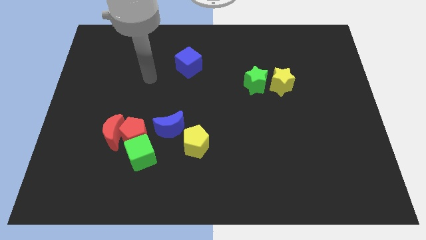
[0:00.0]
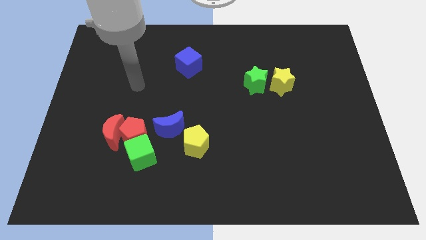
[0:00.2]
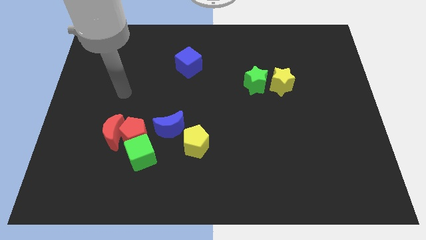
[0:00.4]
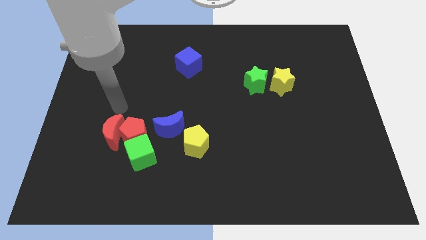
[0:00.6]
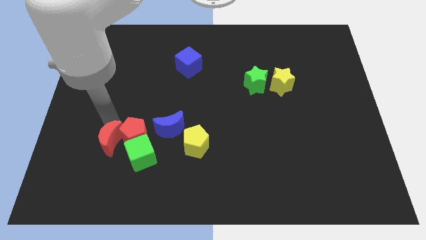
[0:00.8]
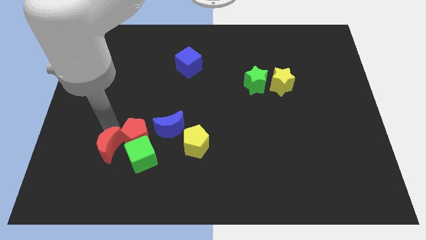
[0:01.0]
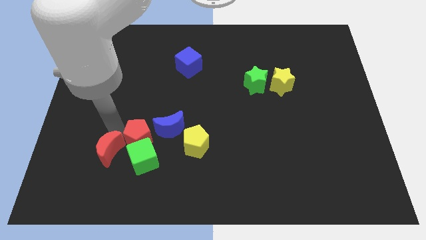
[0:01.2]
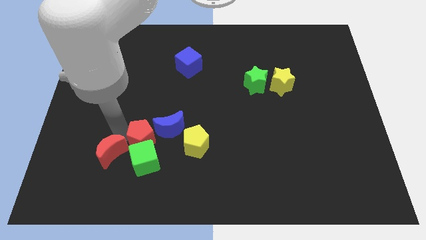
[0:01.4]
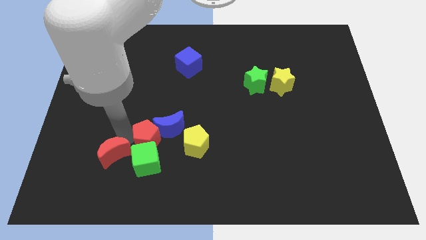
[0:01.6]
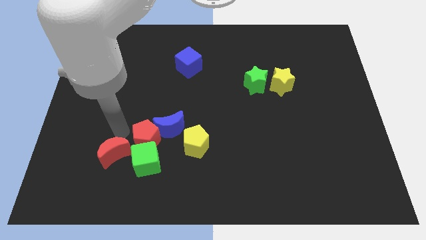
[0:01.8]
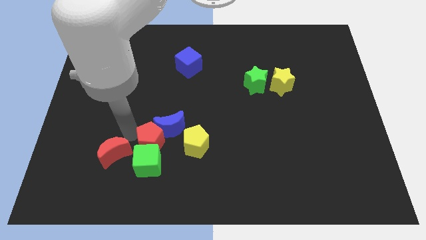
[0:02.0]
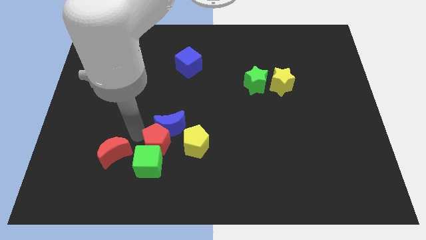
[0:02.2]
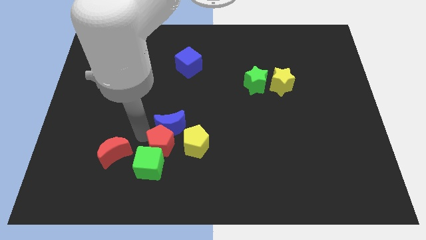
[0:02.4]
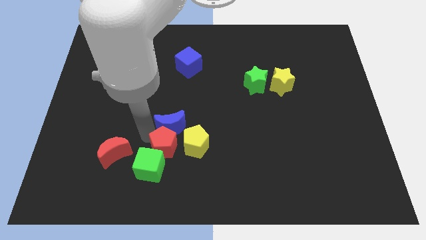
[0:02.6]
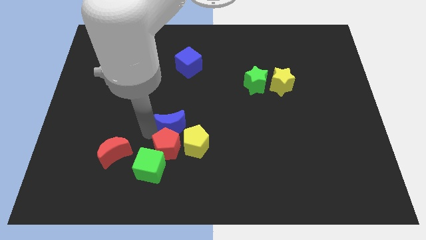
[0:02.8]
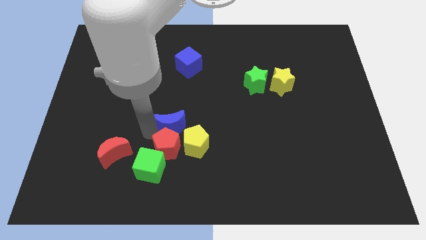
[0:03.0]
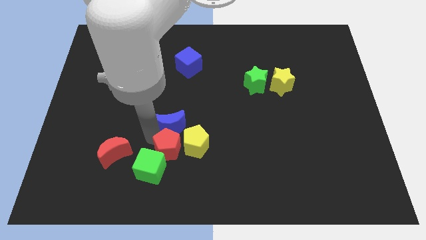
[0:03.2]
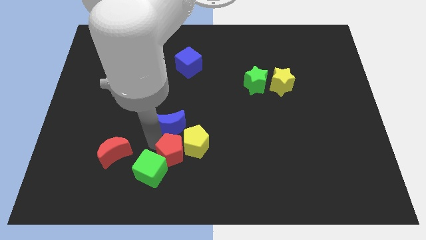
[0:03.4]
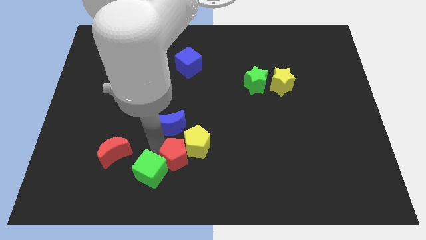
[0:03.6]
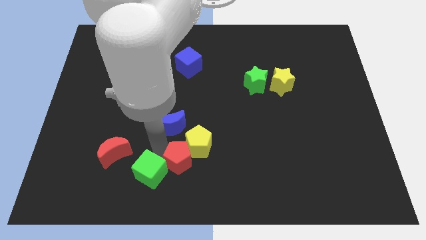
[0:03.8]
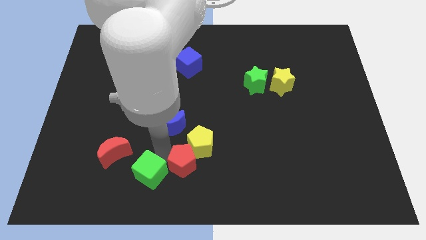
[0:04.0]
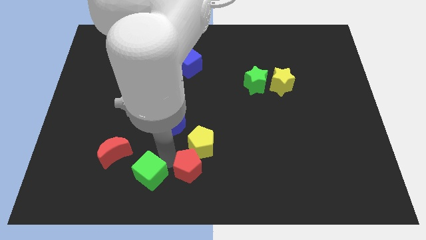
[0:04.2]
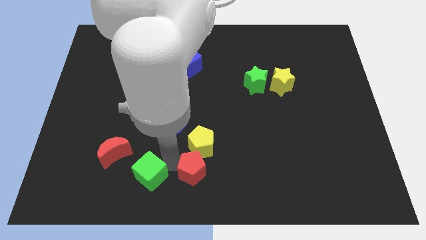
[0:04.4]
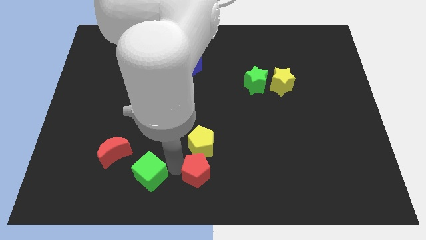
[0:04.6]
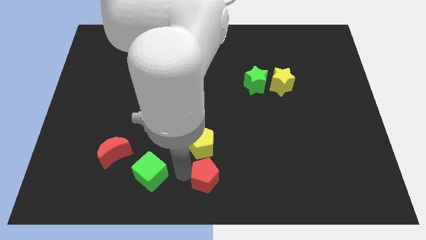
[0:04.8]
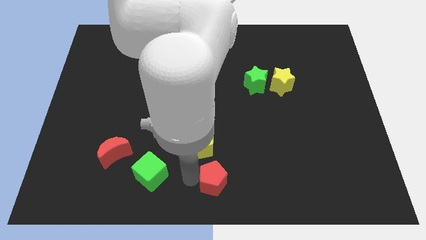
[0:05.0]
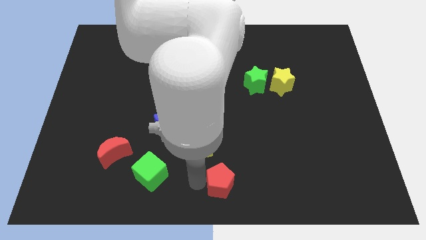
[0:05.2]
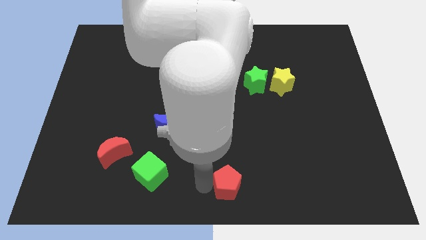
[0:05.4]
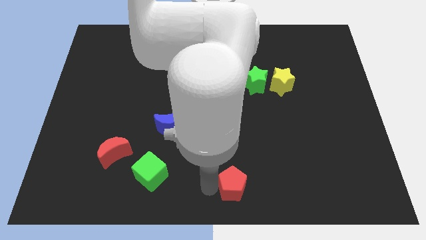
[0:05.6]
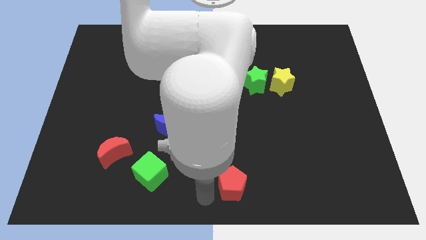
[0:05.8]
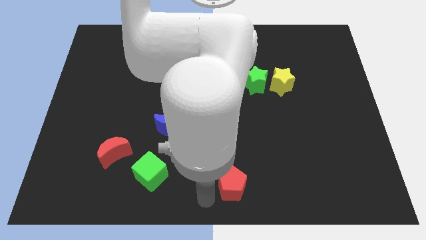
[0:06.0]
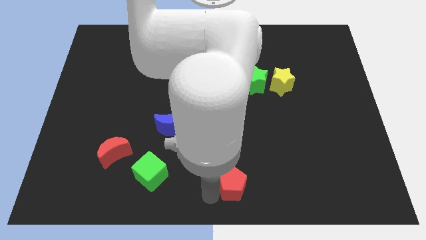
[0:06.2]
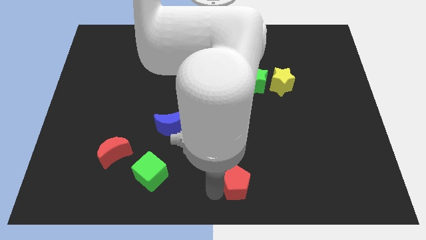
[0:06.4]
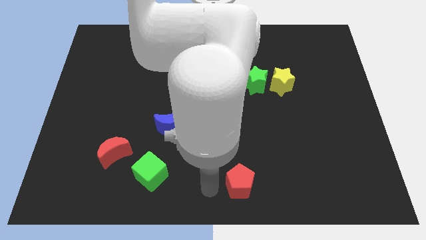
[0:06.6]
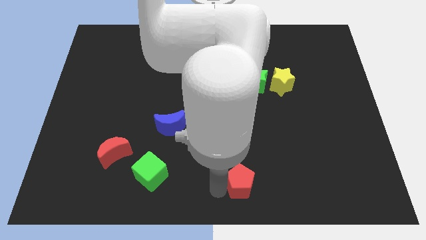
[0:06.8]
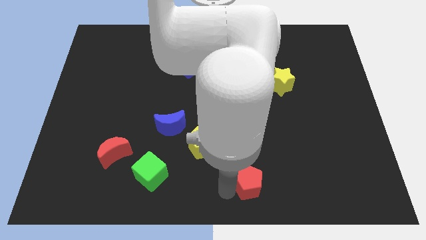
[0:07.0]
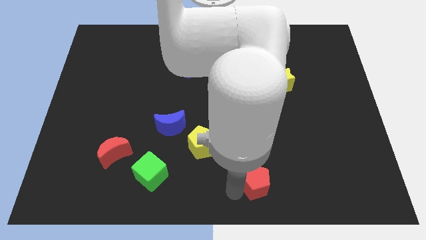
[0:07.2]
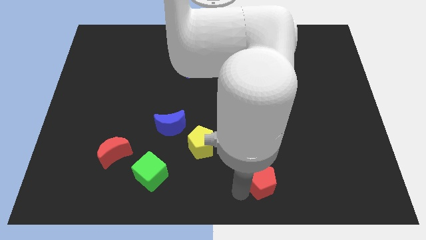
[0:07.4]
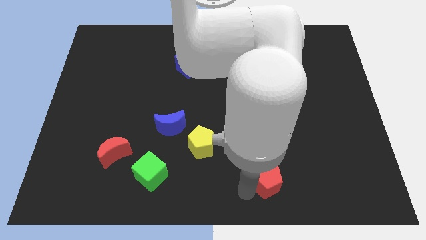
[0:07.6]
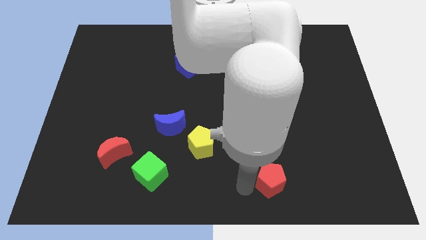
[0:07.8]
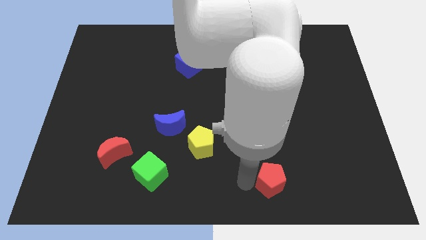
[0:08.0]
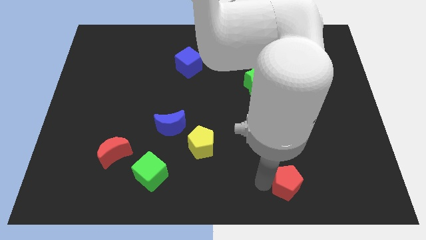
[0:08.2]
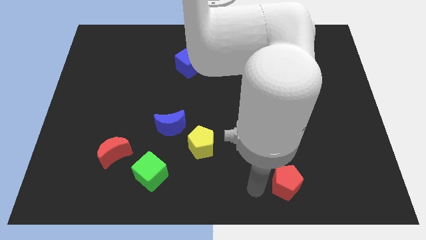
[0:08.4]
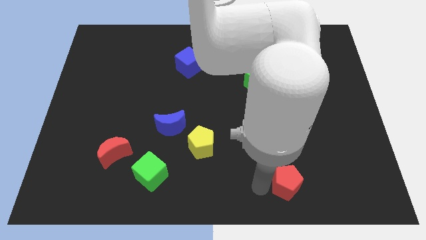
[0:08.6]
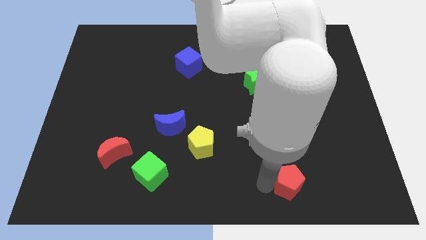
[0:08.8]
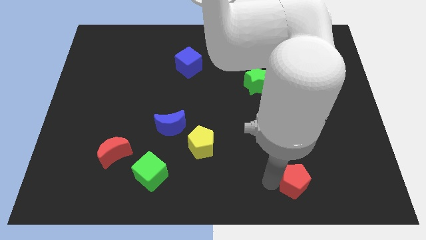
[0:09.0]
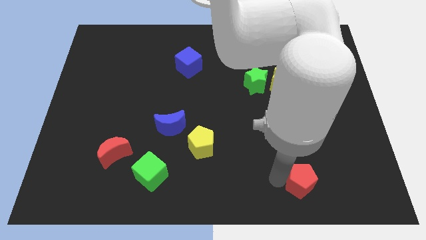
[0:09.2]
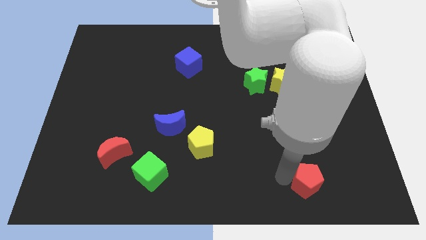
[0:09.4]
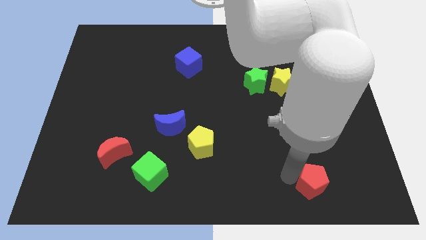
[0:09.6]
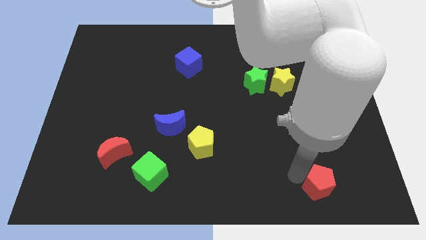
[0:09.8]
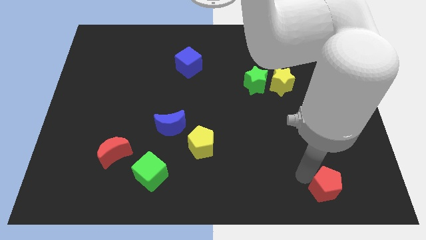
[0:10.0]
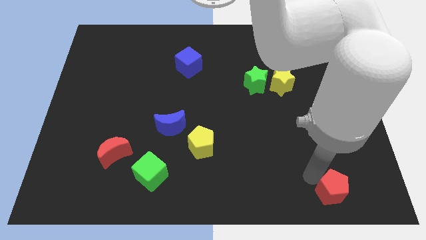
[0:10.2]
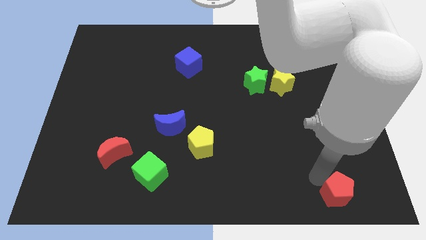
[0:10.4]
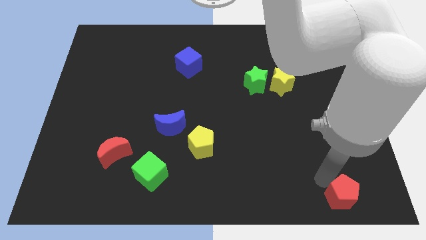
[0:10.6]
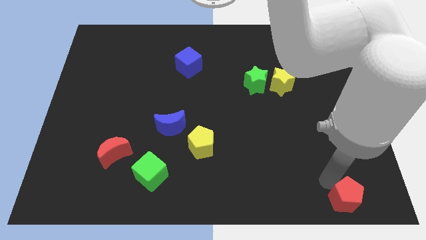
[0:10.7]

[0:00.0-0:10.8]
move the red pentagon to the bottom right corner

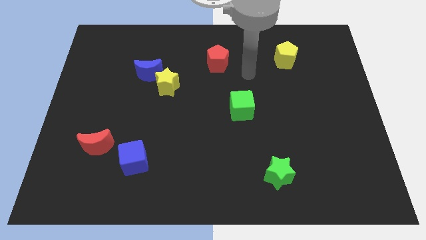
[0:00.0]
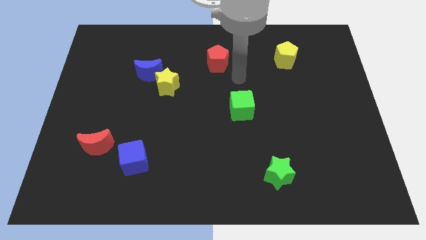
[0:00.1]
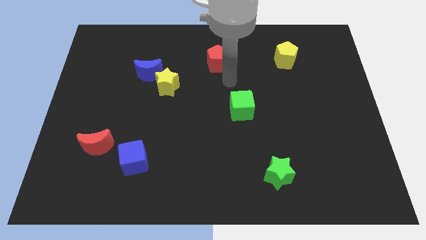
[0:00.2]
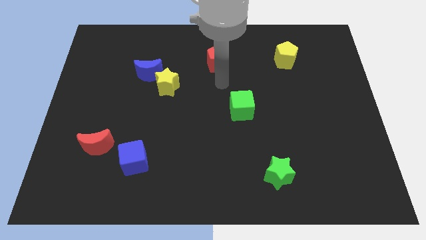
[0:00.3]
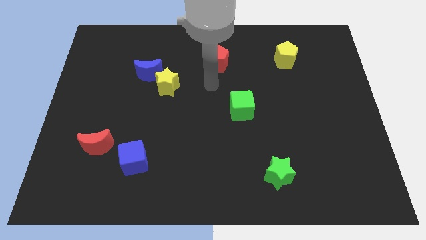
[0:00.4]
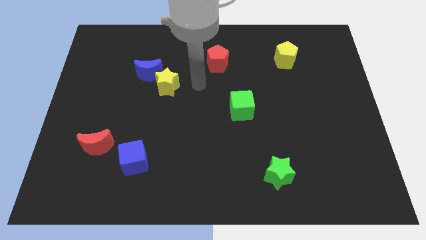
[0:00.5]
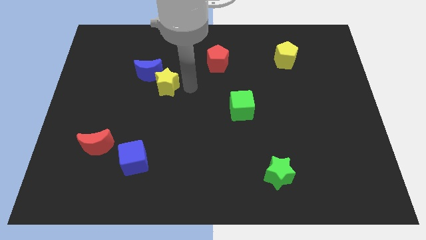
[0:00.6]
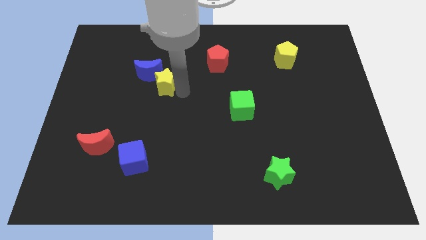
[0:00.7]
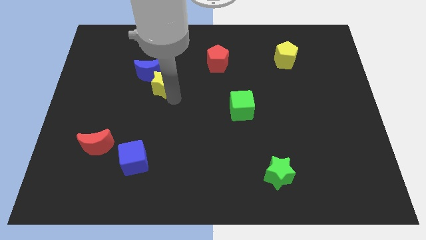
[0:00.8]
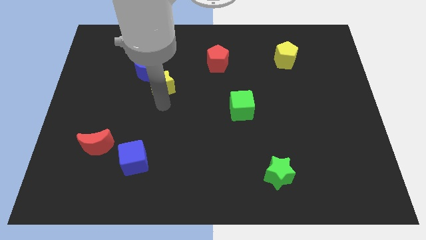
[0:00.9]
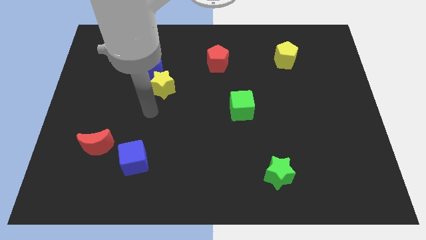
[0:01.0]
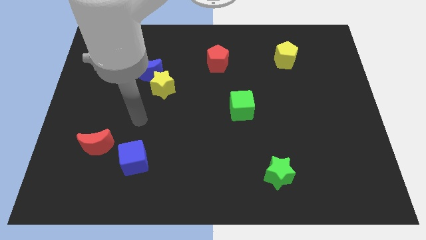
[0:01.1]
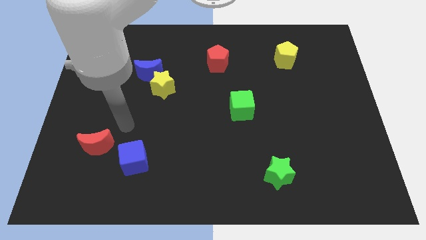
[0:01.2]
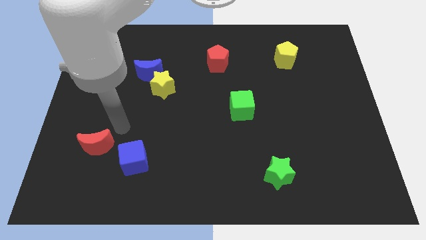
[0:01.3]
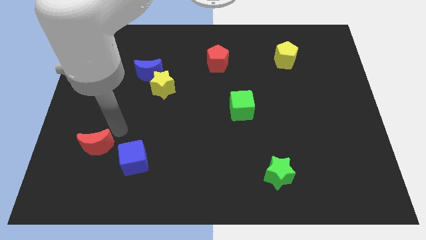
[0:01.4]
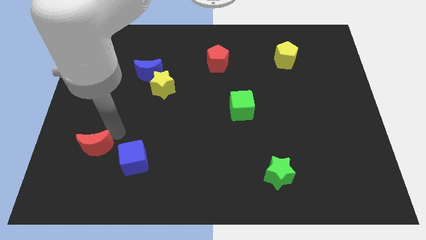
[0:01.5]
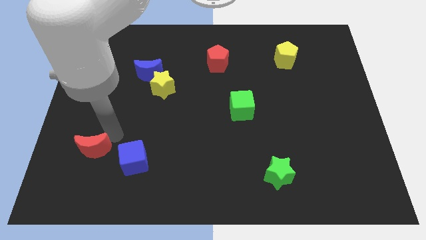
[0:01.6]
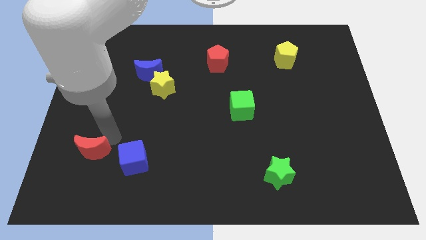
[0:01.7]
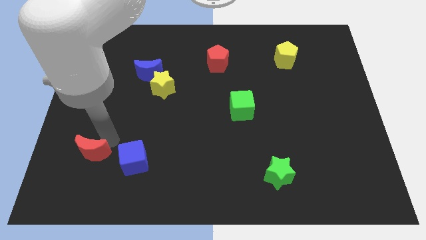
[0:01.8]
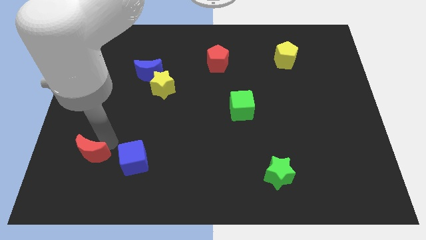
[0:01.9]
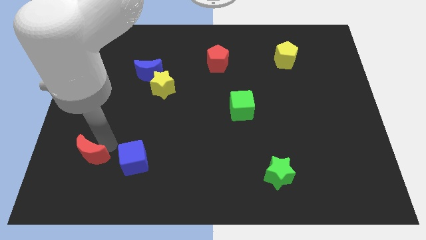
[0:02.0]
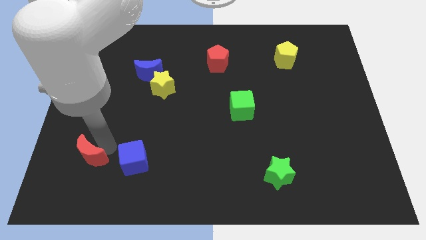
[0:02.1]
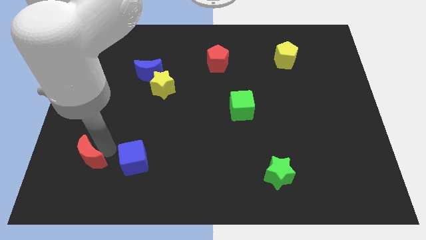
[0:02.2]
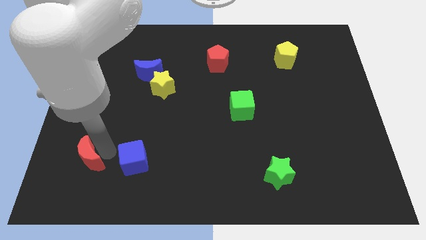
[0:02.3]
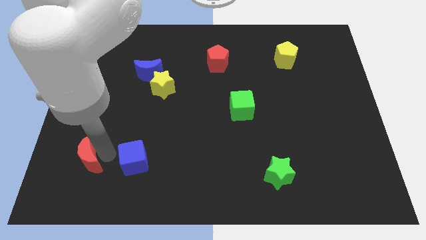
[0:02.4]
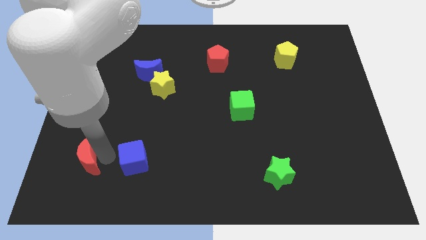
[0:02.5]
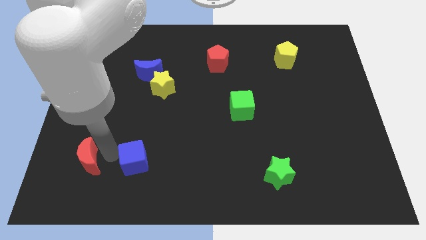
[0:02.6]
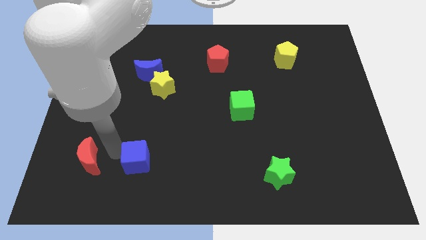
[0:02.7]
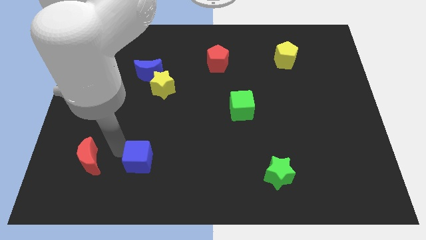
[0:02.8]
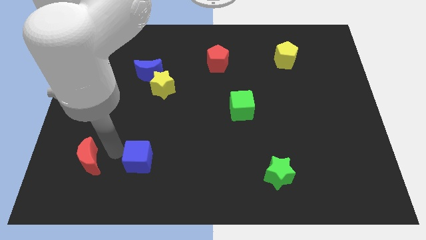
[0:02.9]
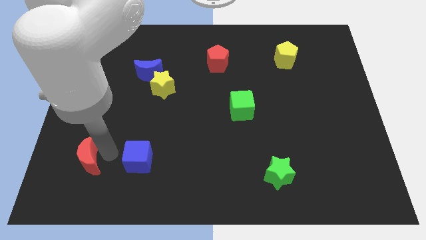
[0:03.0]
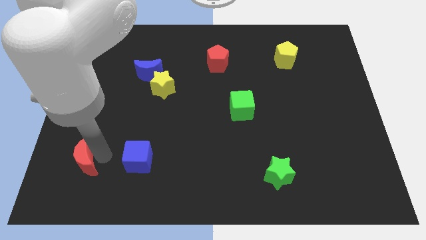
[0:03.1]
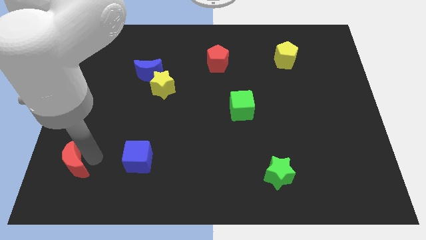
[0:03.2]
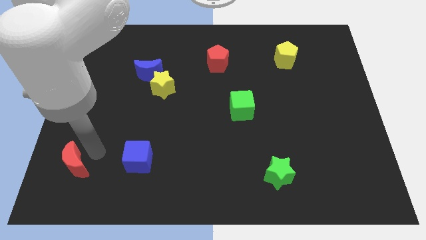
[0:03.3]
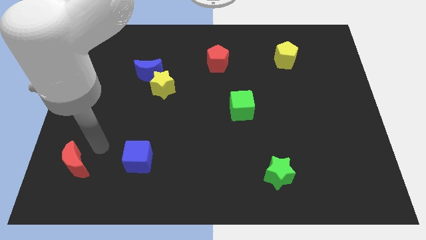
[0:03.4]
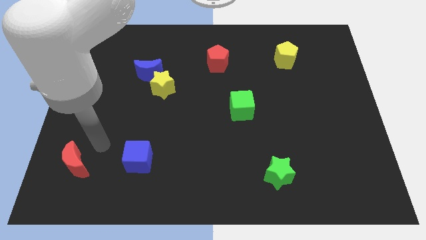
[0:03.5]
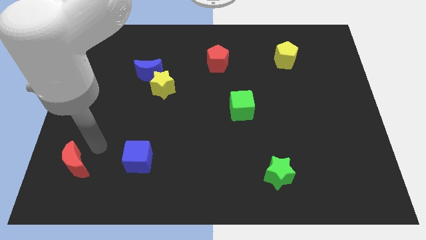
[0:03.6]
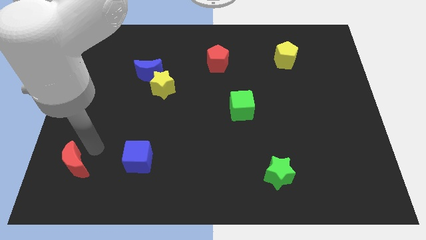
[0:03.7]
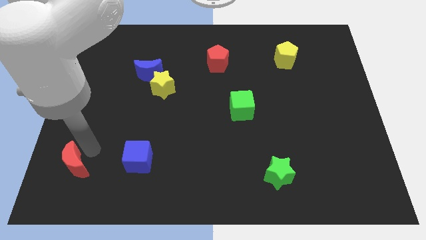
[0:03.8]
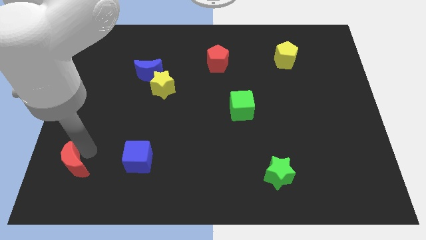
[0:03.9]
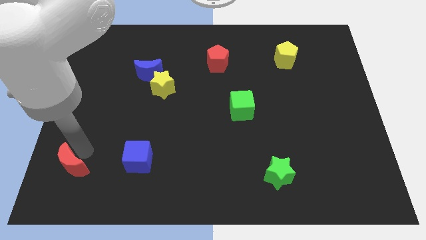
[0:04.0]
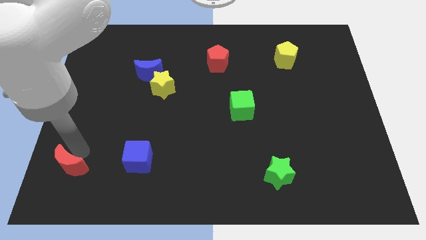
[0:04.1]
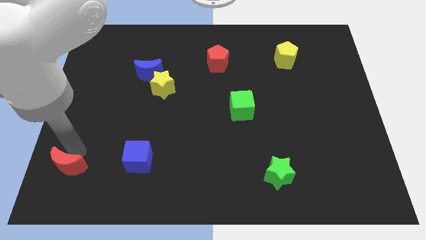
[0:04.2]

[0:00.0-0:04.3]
slide the red moon to the bottom left corner
